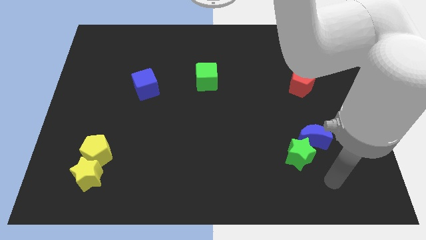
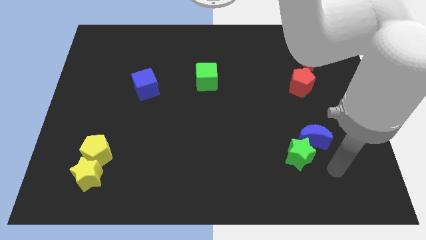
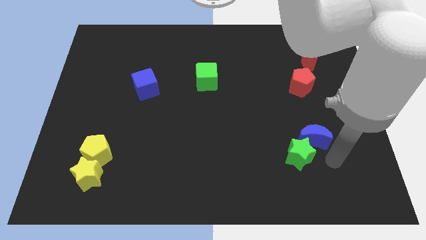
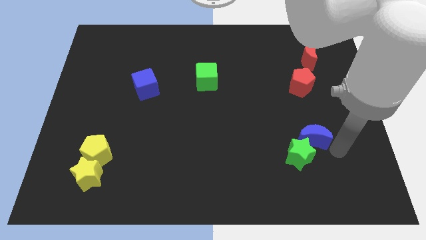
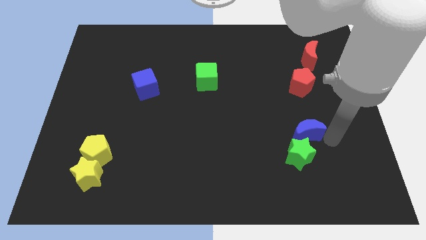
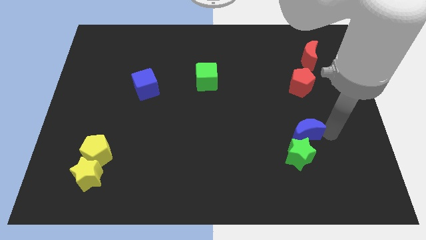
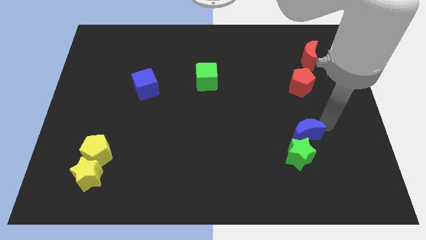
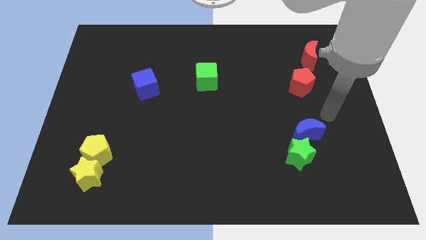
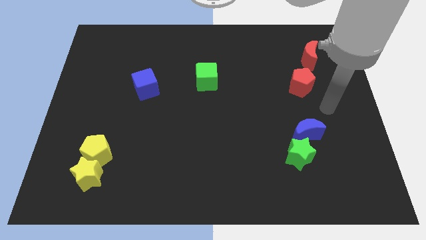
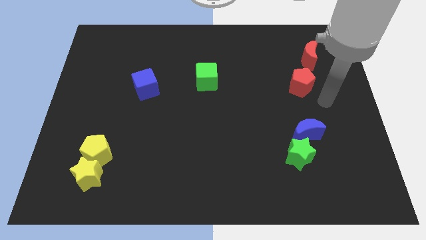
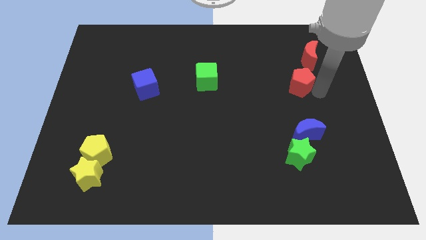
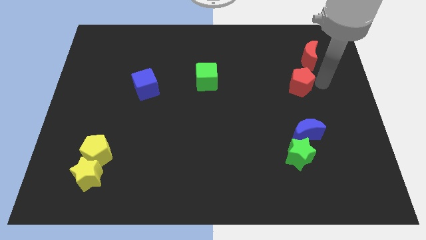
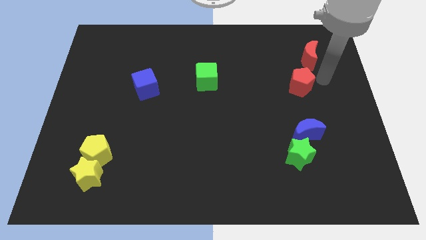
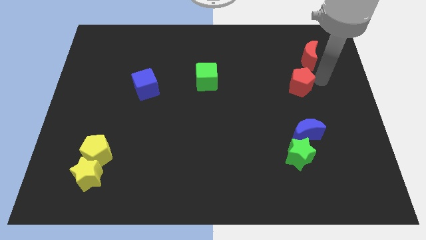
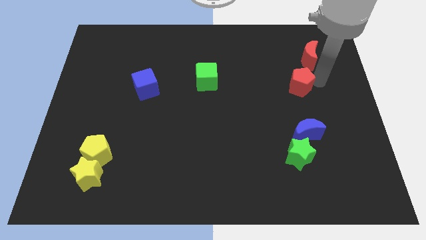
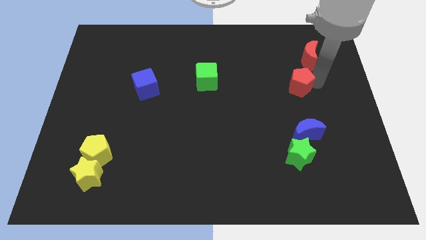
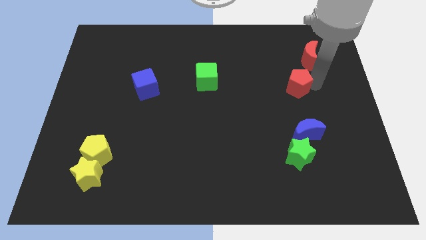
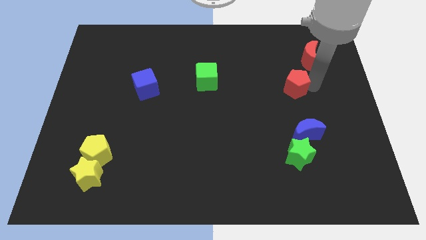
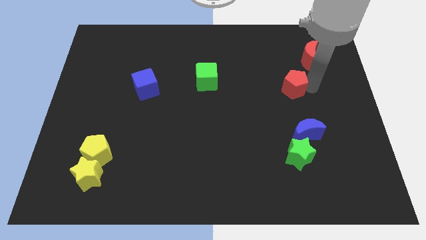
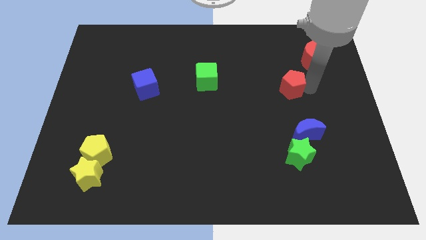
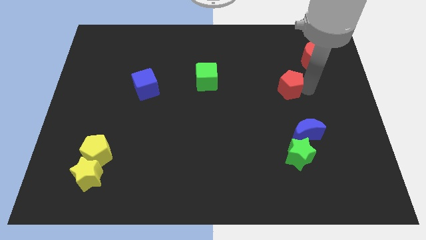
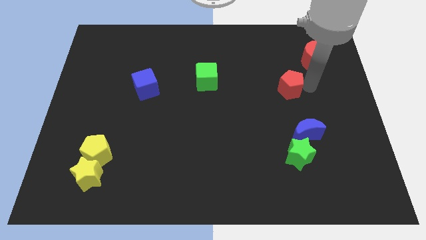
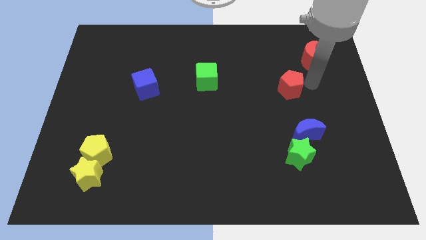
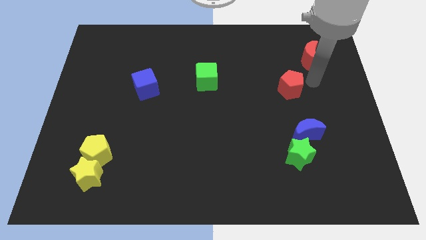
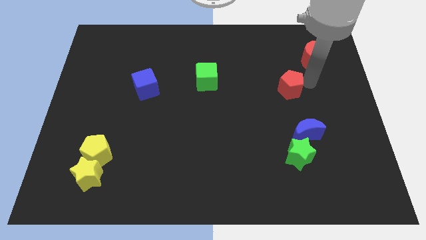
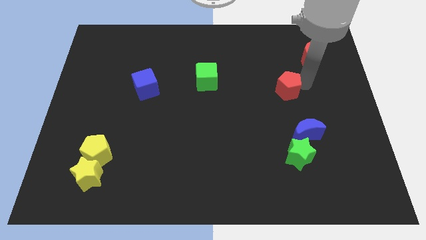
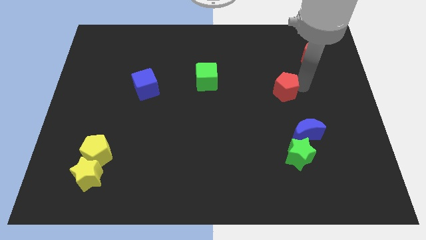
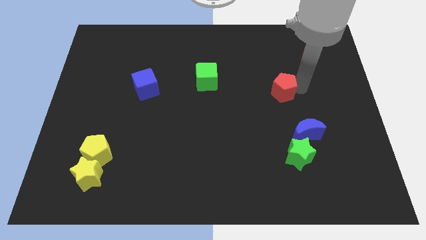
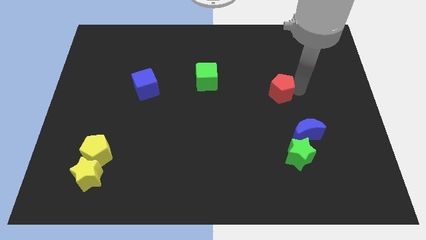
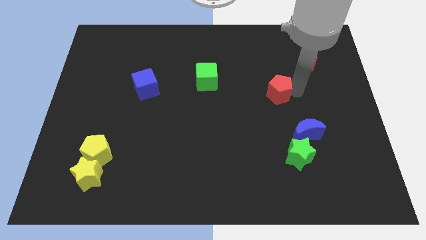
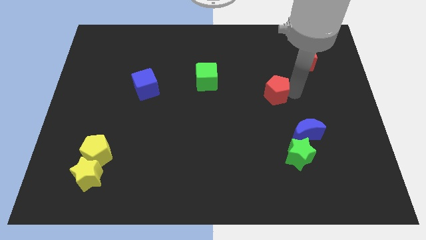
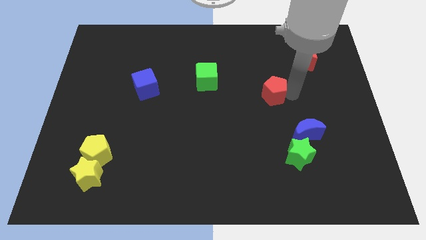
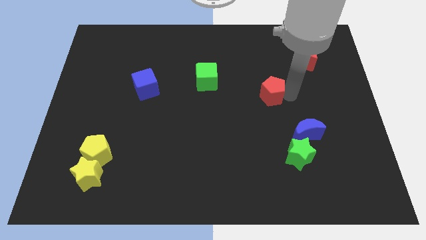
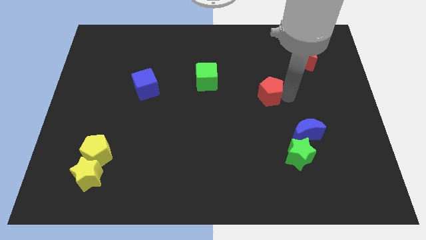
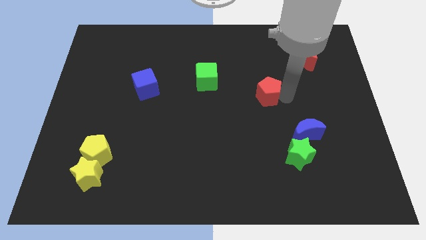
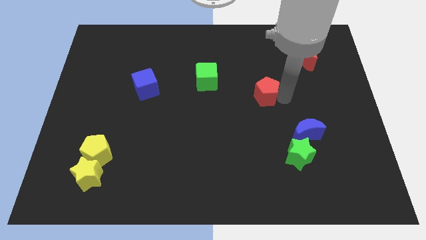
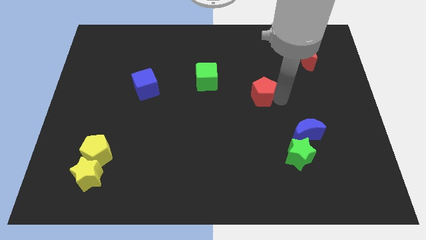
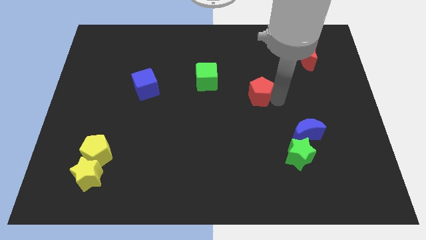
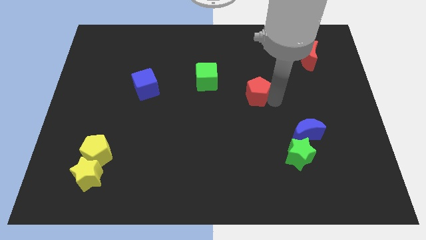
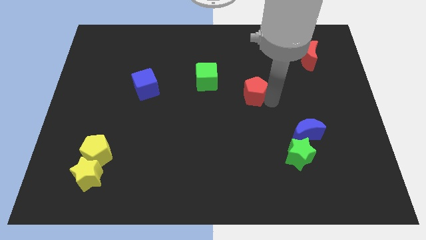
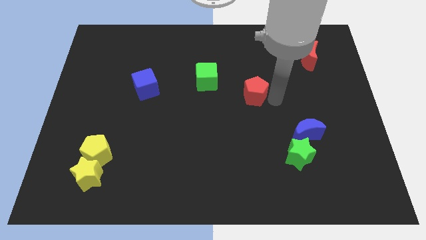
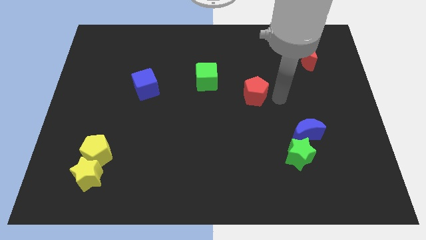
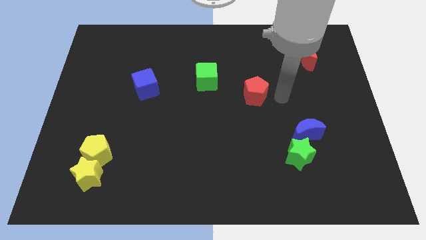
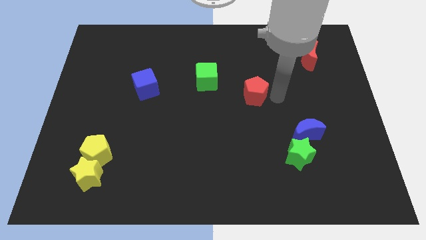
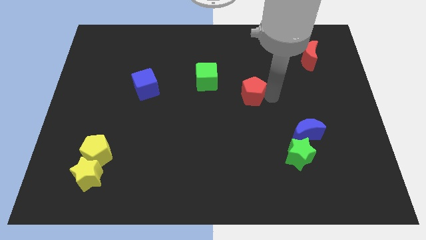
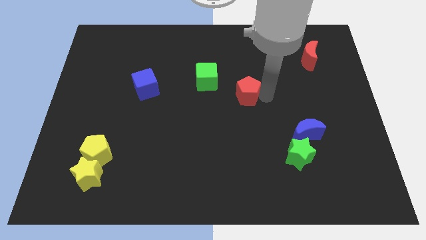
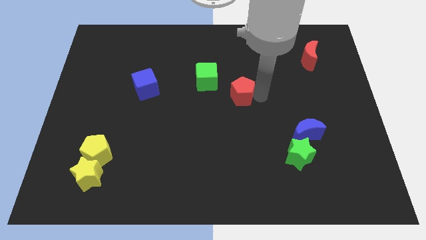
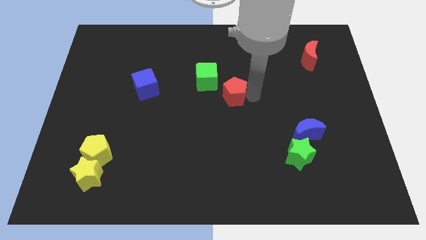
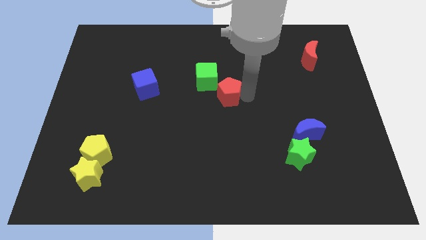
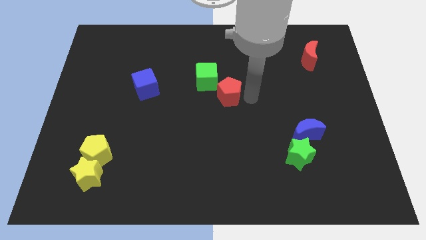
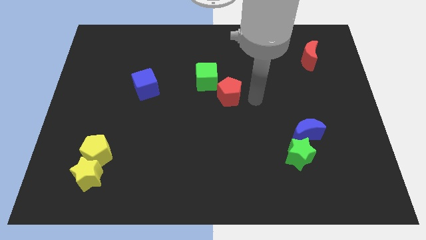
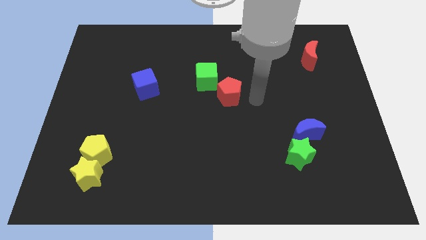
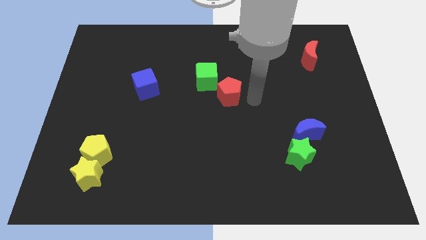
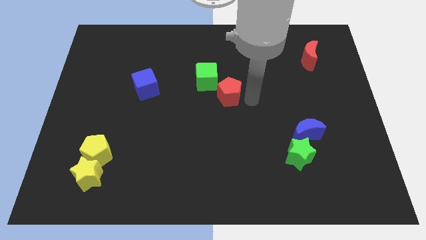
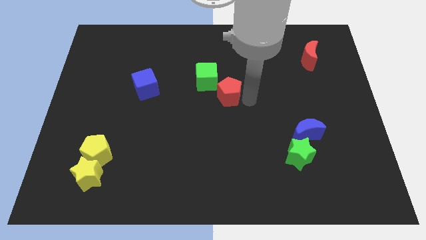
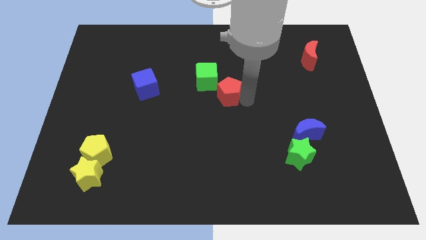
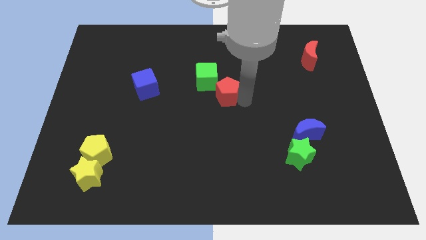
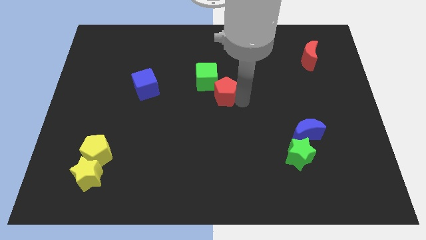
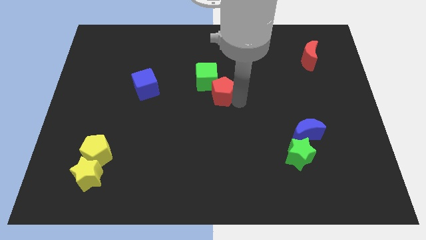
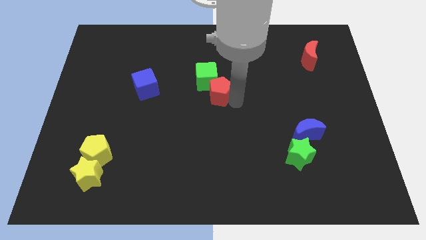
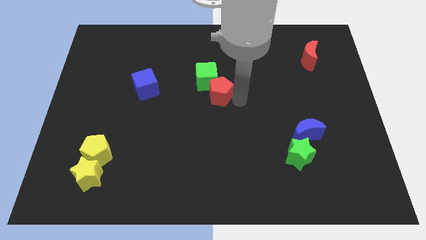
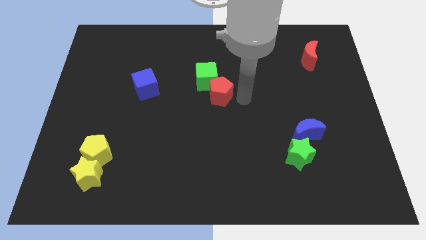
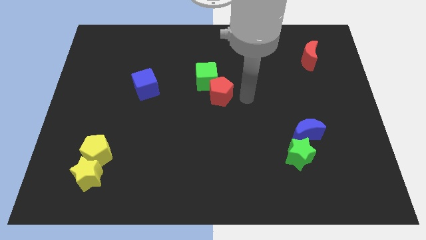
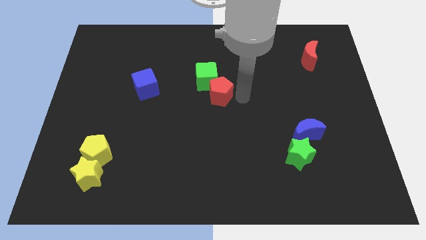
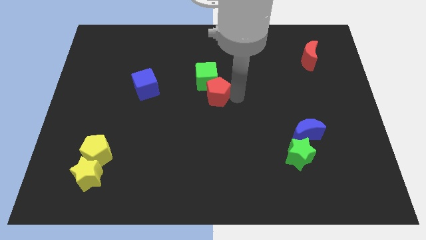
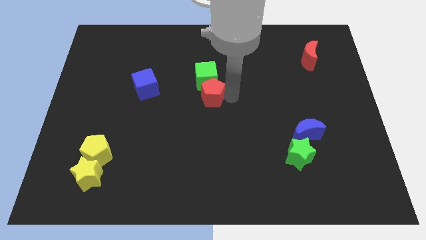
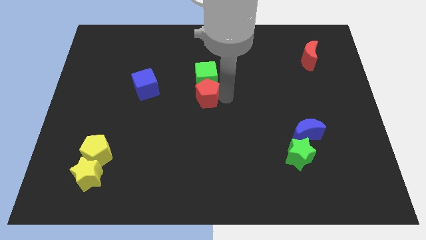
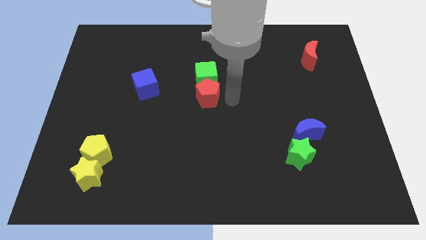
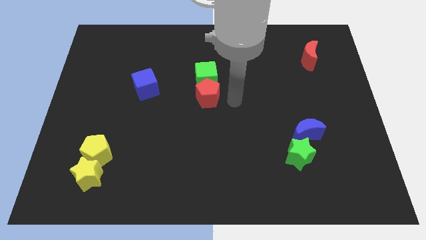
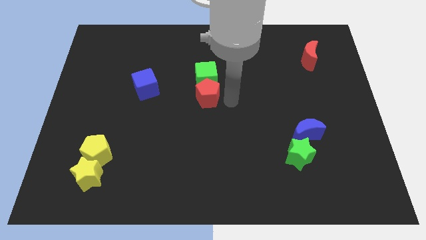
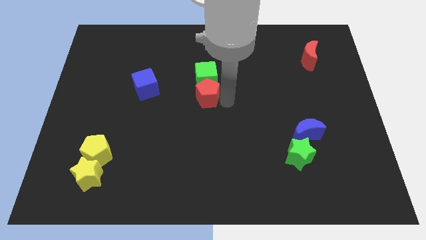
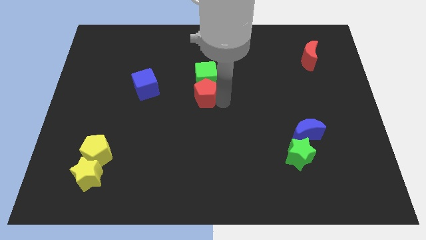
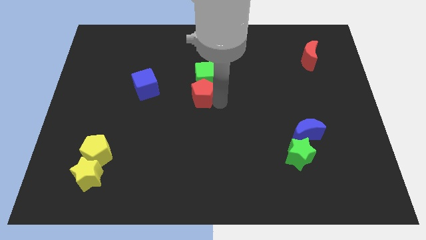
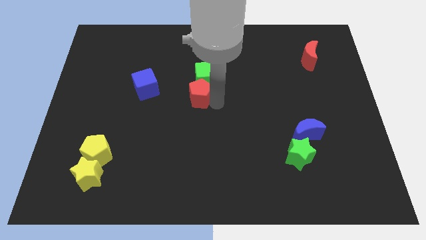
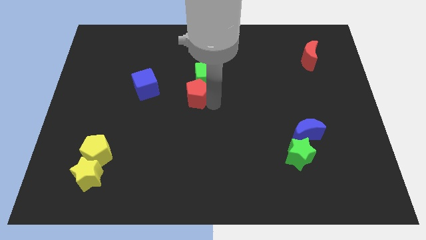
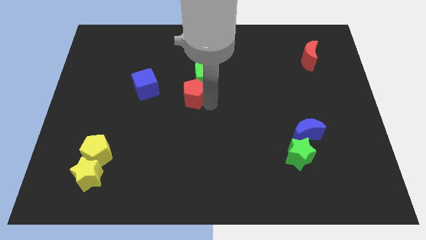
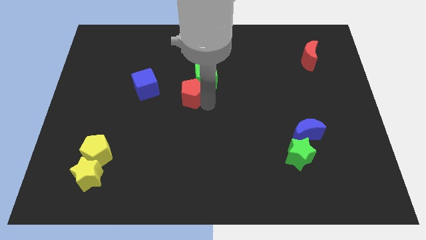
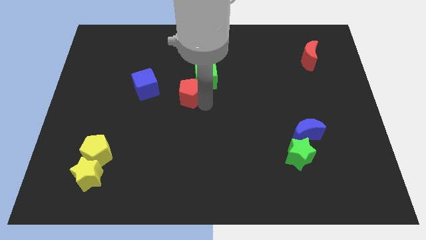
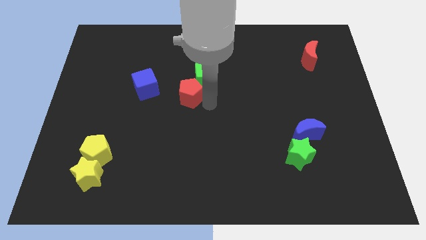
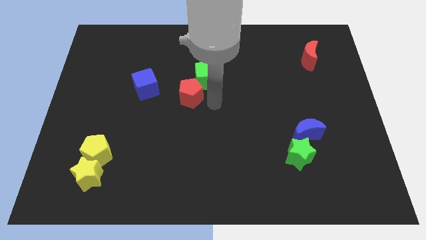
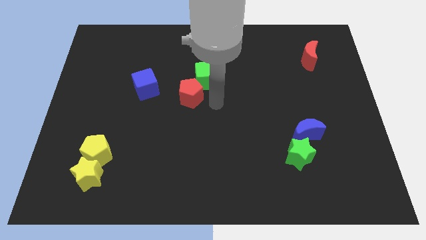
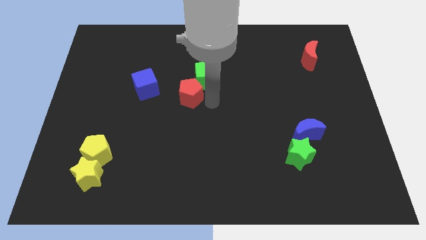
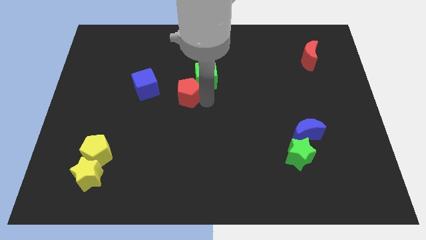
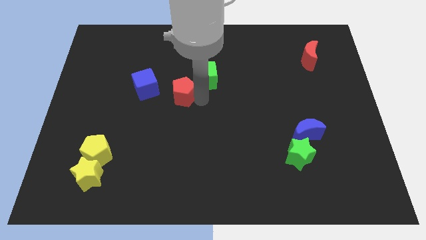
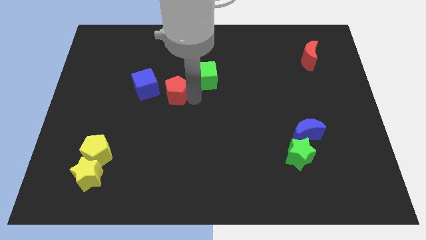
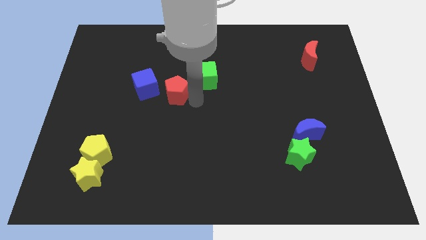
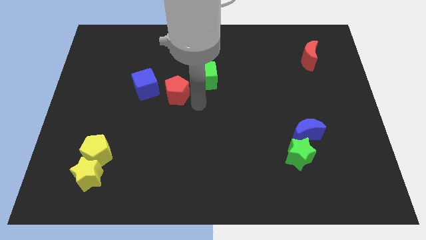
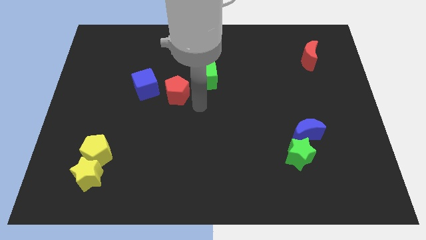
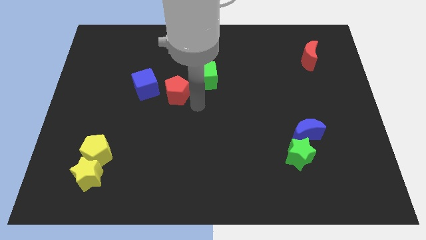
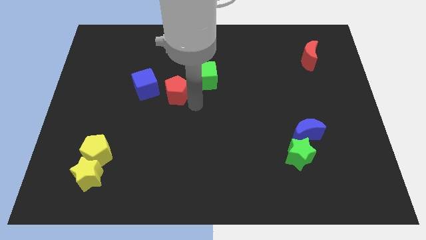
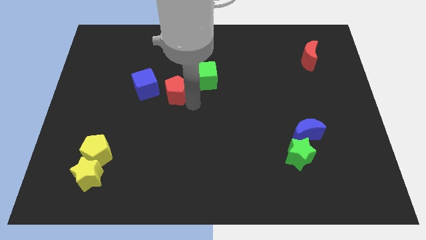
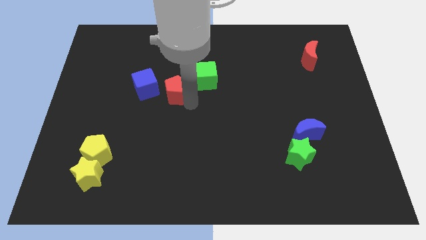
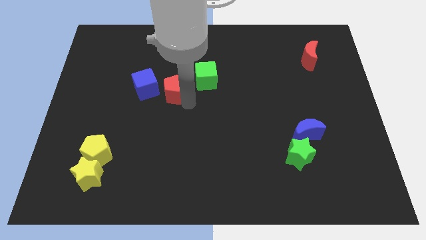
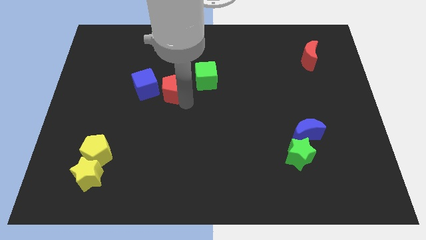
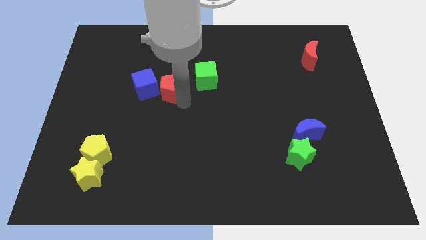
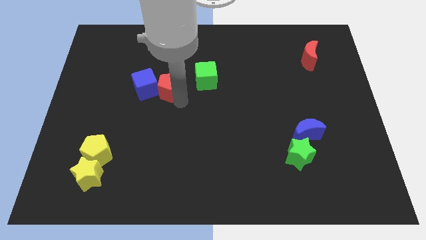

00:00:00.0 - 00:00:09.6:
move the red pentagon close to the blue cube
